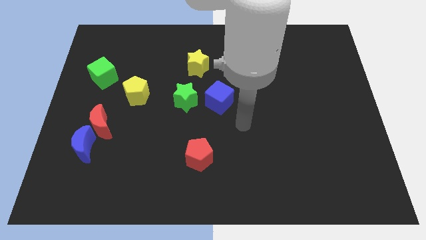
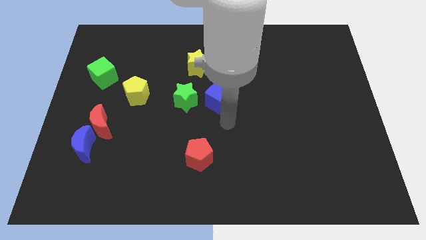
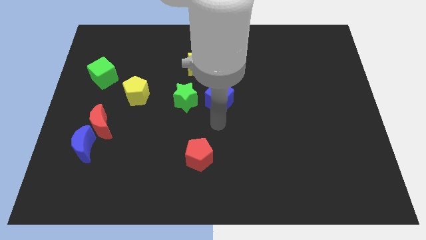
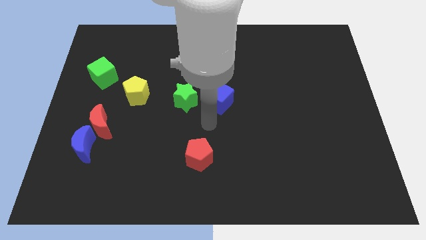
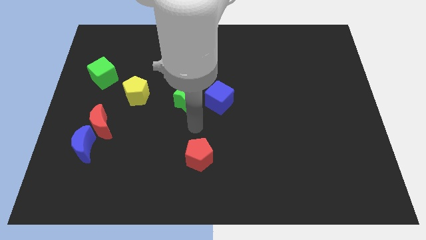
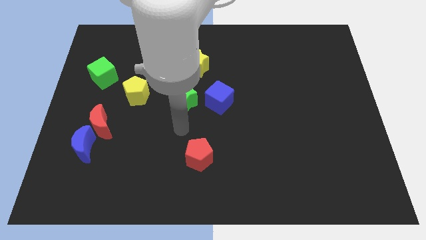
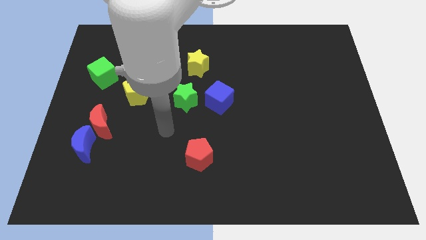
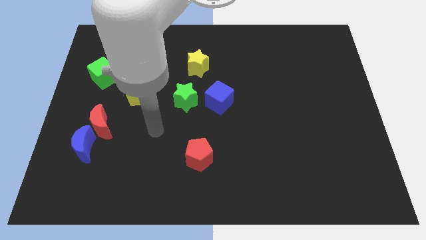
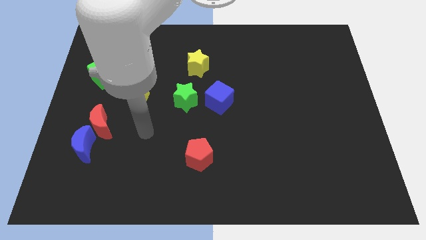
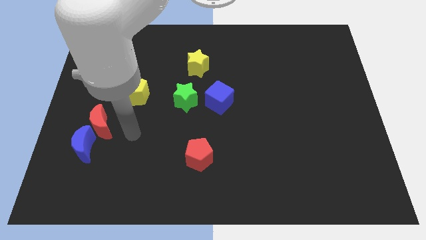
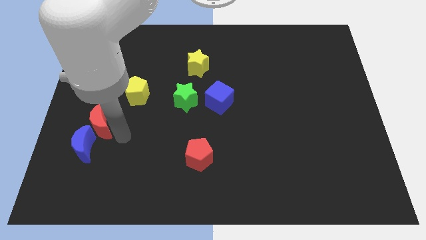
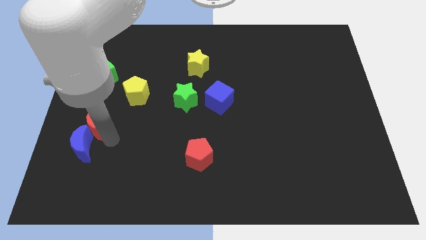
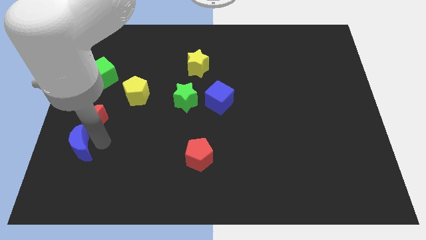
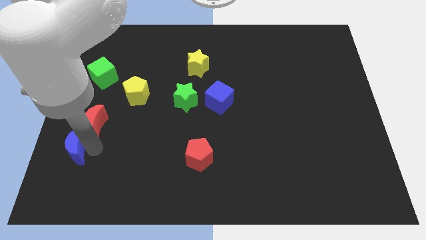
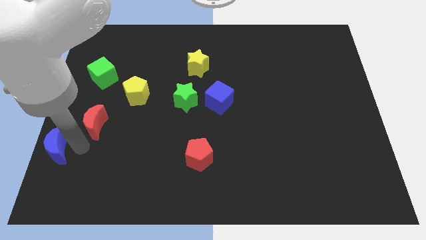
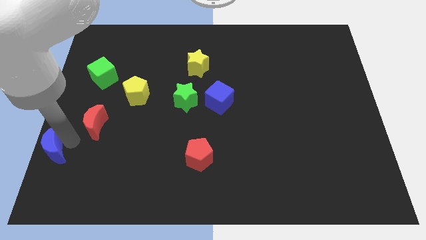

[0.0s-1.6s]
pull the red moon apart from the blue moon

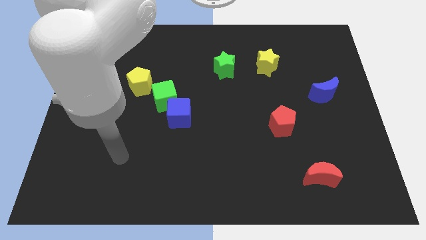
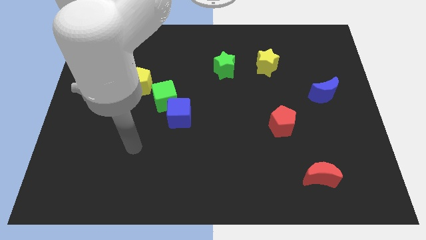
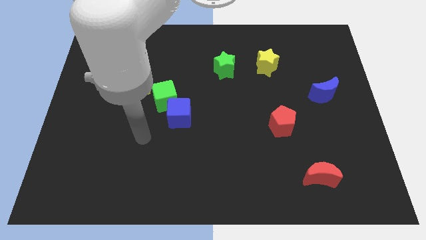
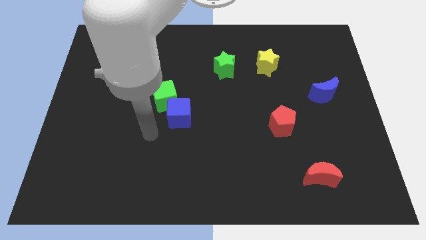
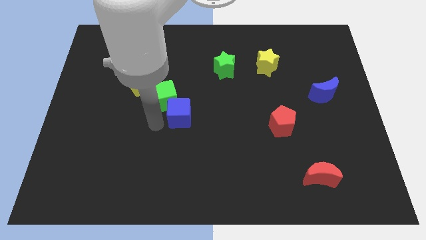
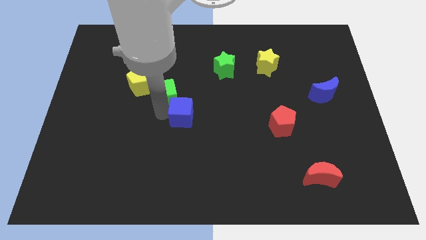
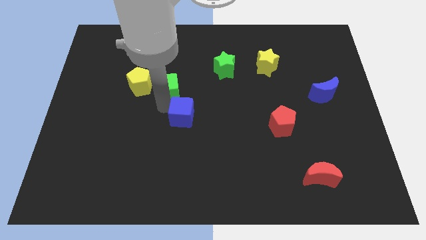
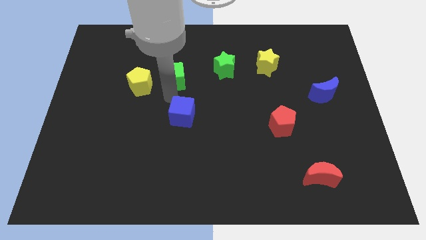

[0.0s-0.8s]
pull the blue cube apart from the green cube

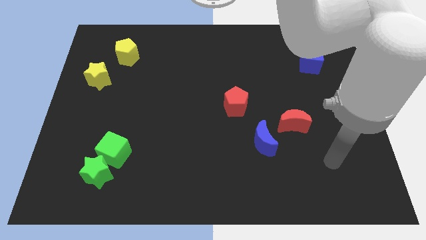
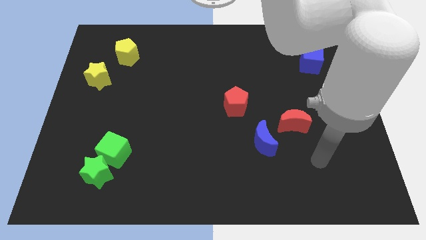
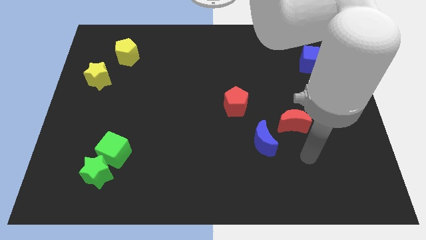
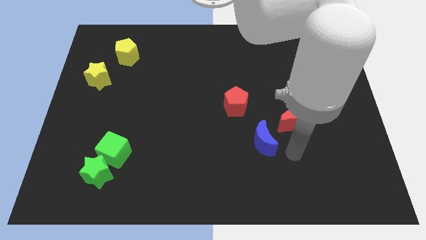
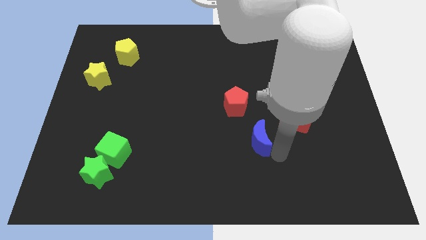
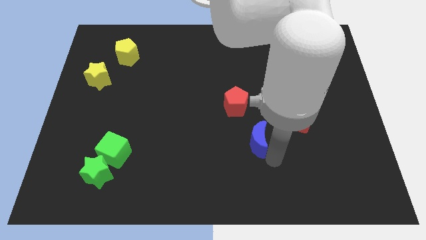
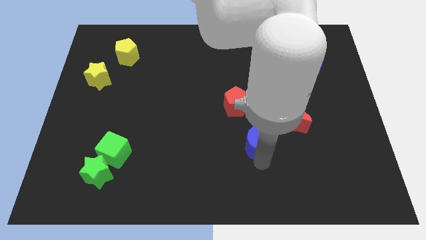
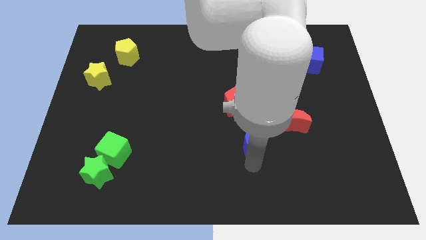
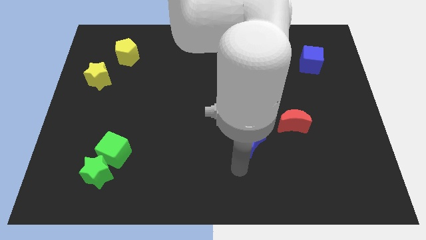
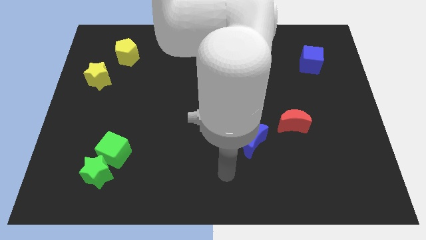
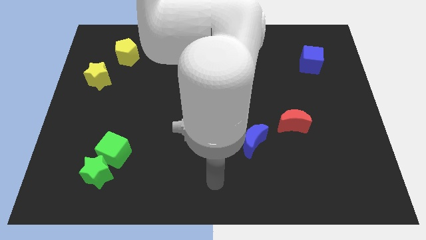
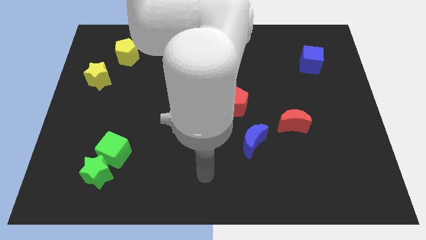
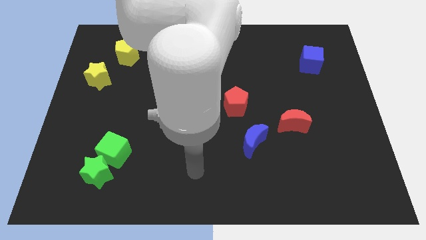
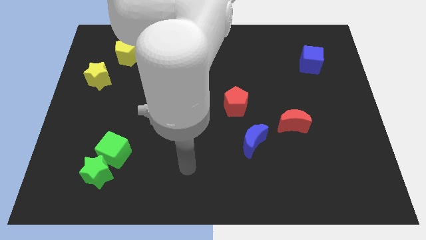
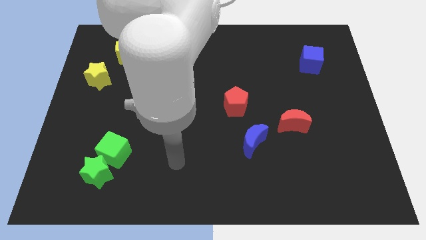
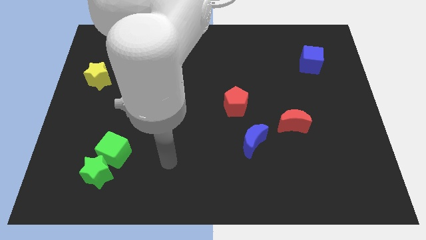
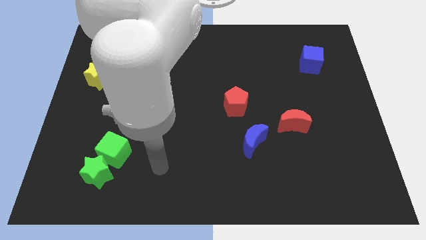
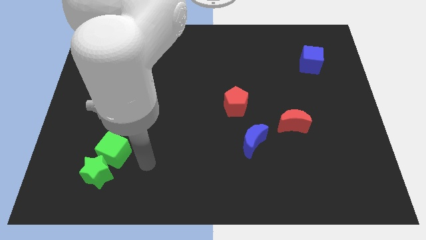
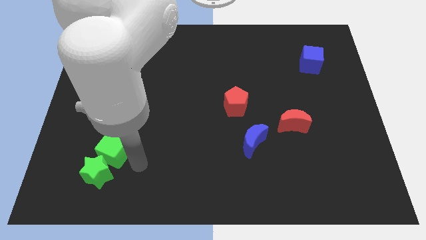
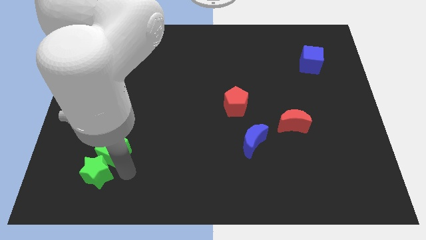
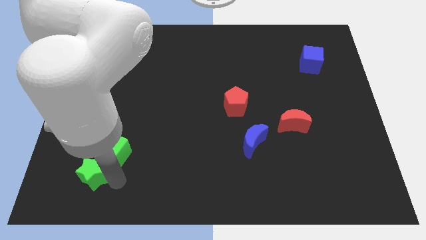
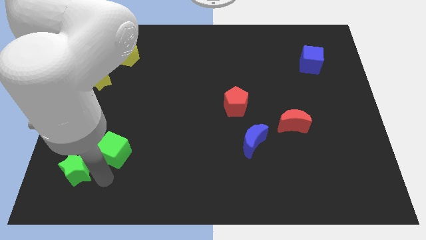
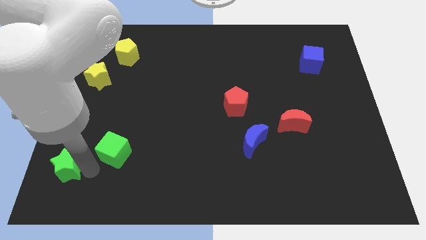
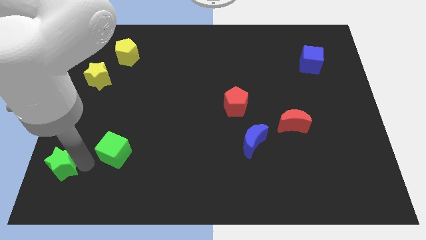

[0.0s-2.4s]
pull the green cube apart from the green star

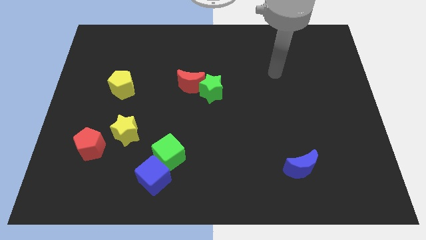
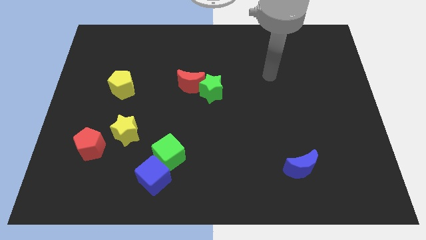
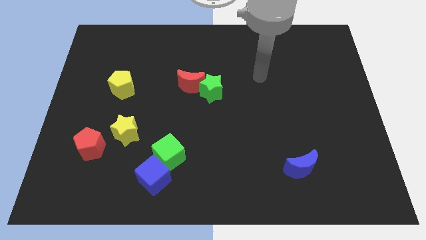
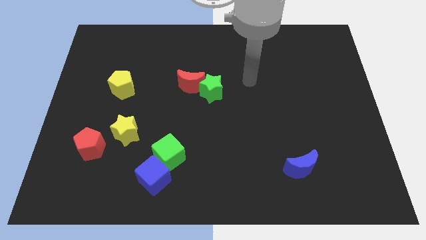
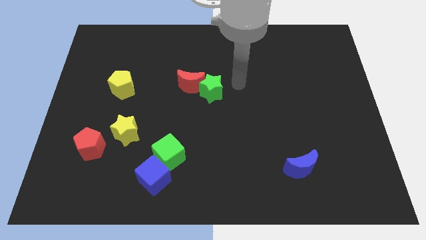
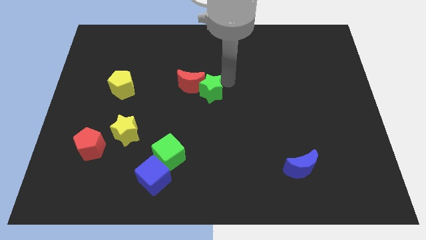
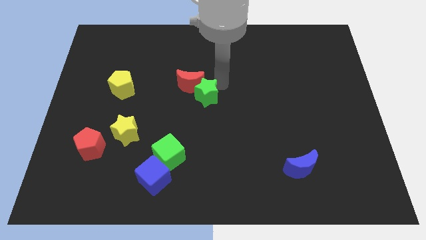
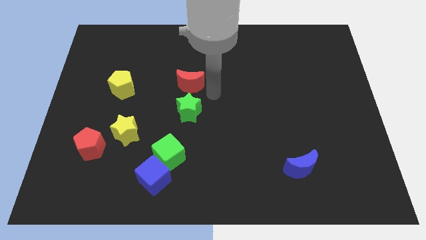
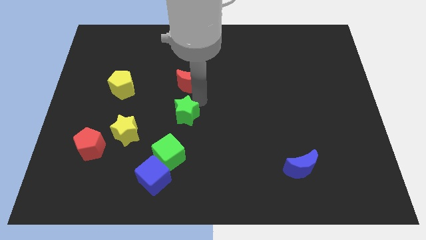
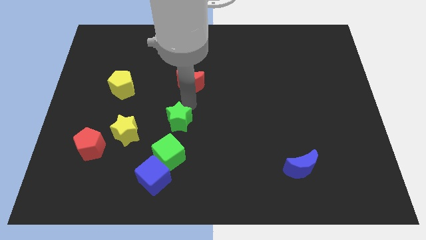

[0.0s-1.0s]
separate the red moon from the green star

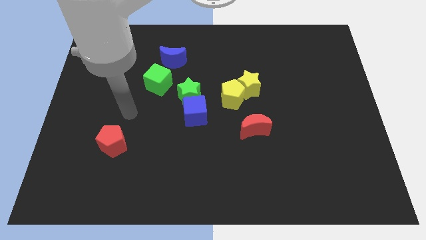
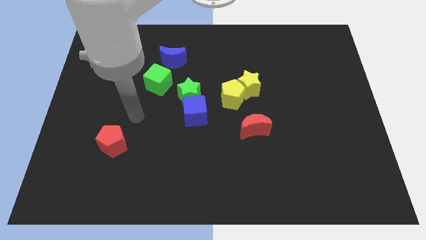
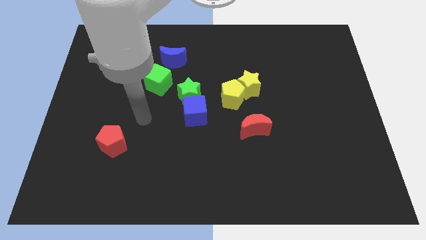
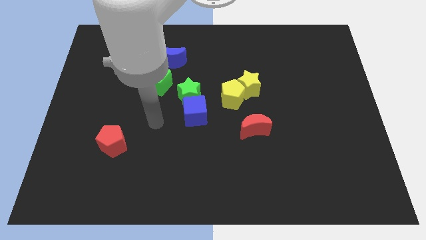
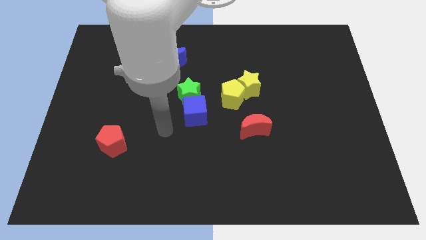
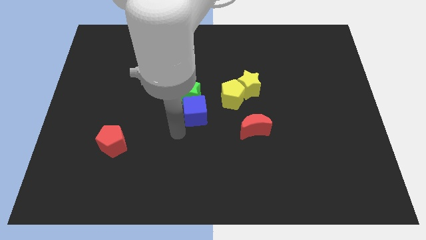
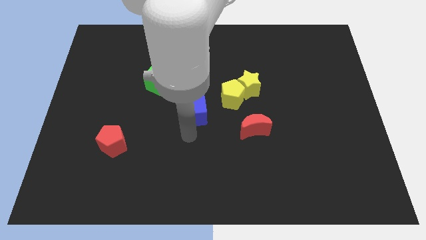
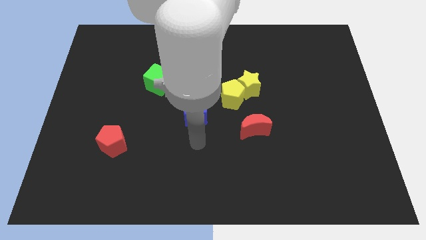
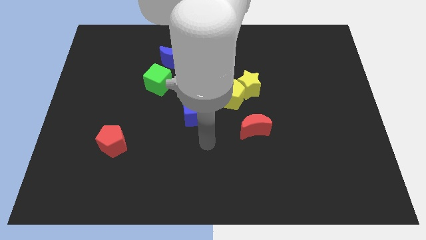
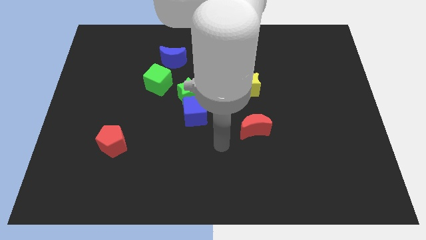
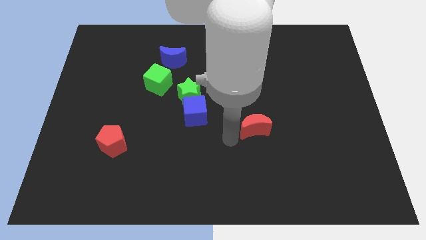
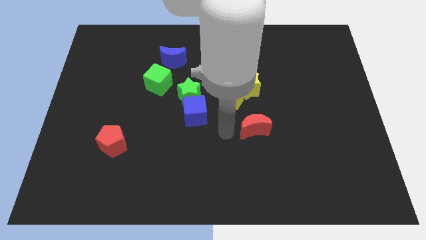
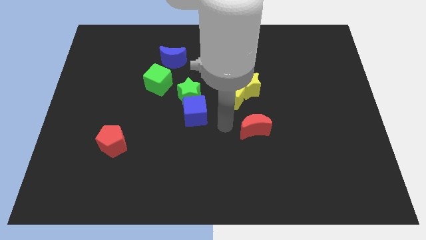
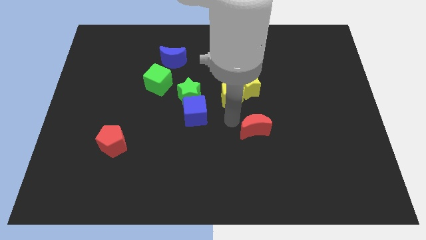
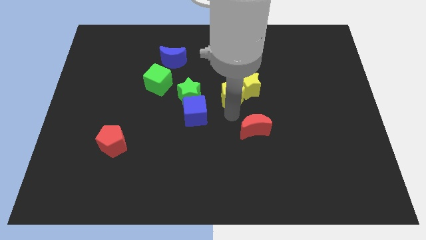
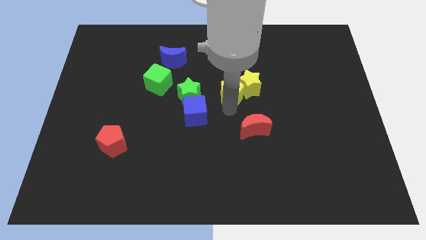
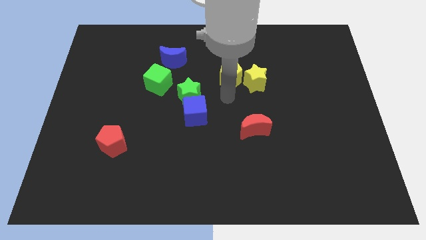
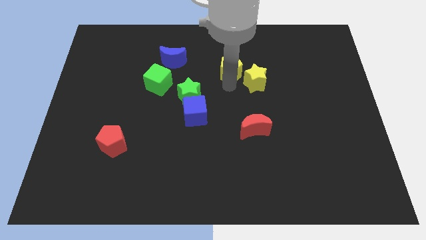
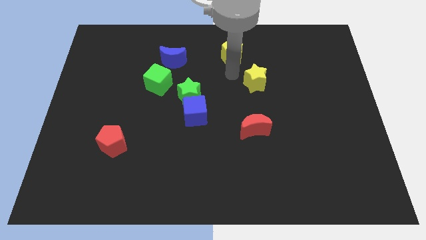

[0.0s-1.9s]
move the yellow star away from the yellow pentagon

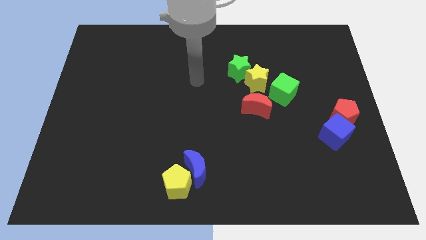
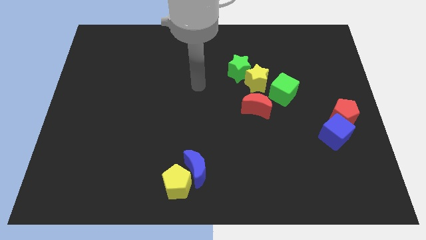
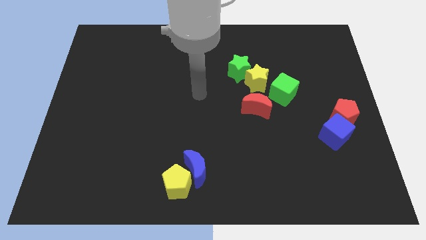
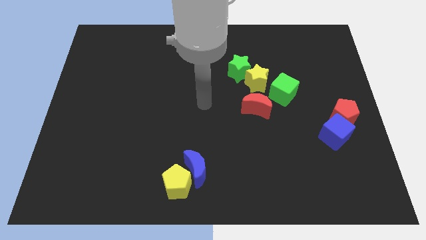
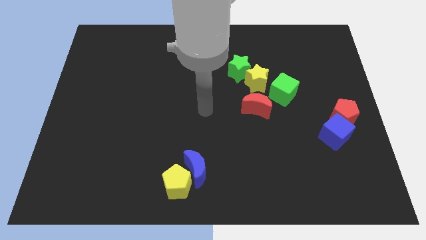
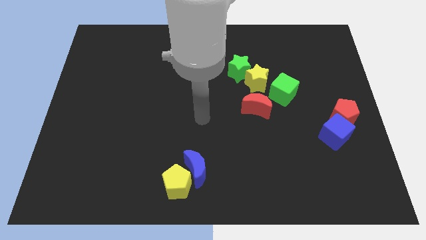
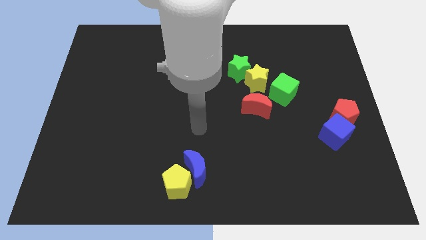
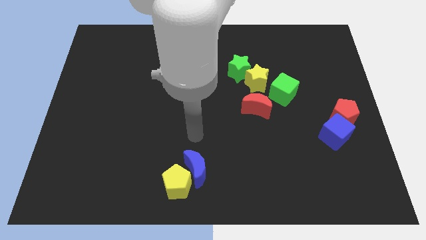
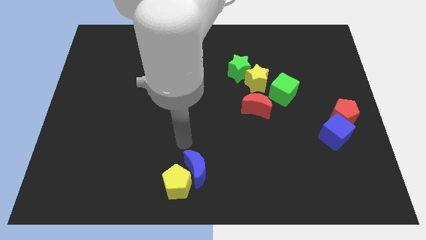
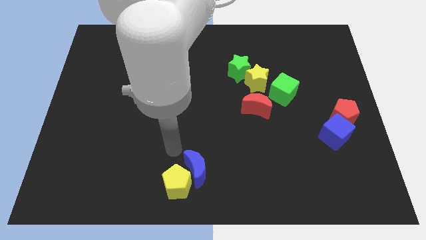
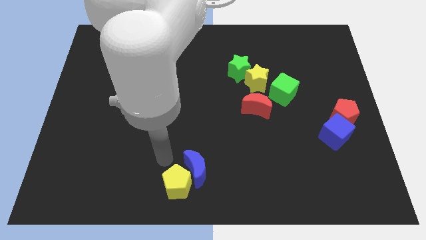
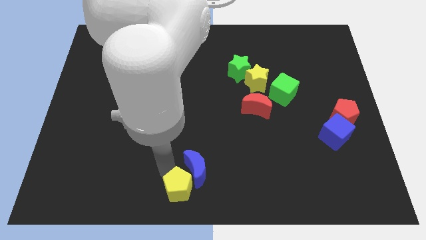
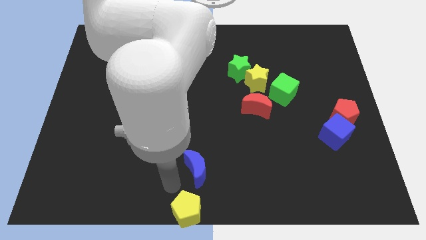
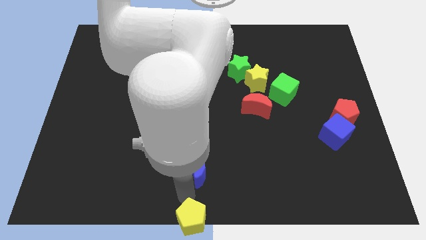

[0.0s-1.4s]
separate the blue moon from the yellow pentagon

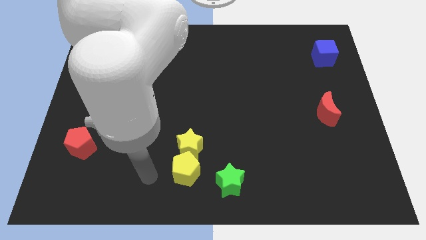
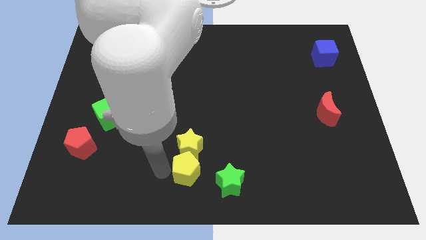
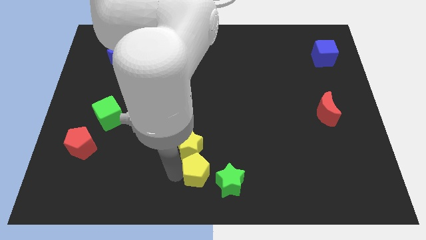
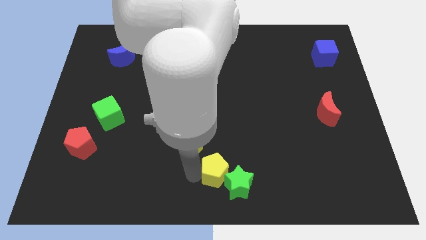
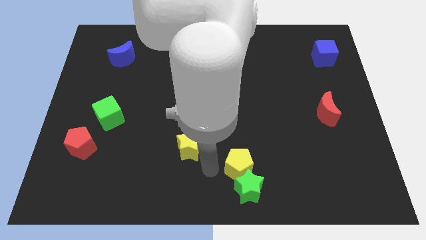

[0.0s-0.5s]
pull the yellow star apart from the yellow pentagon
